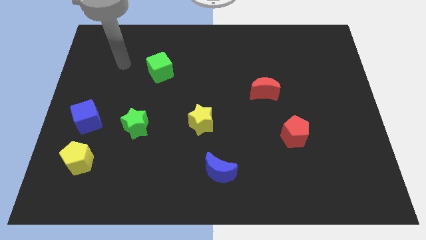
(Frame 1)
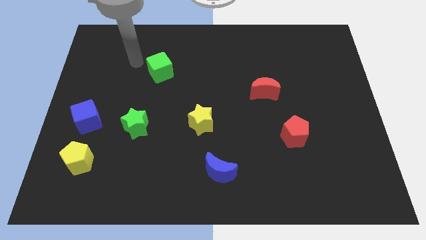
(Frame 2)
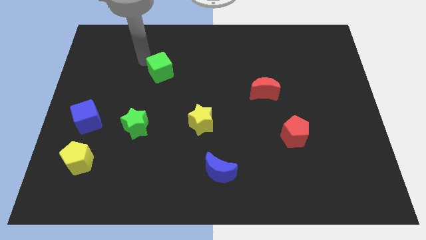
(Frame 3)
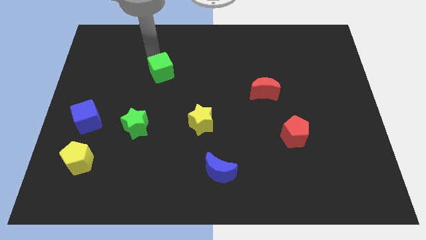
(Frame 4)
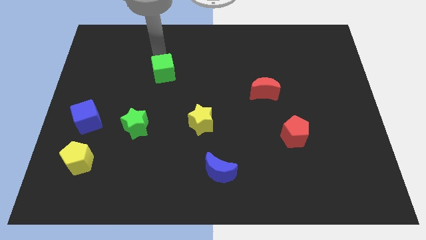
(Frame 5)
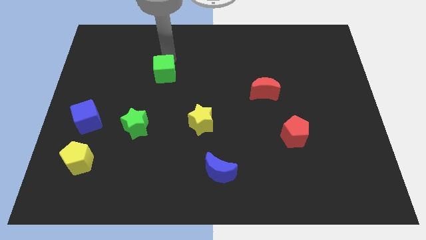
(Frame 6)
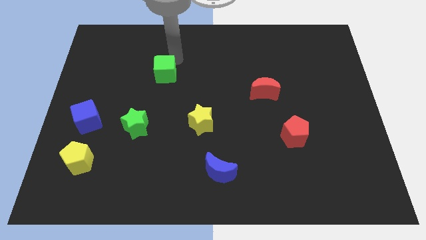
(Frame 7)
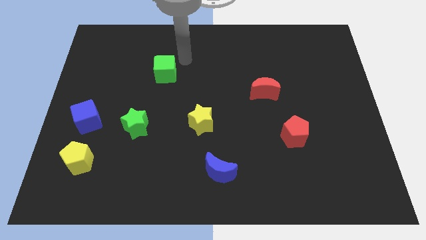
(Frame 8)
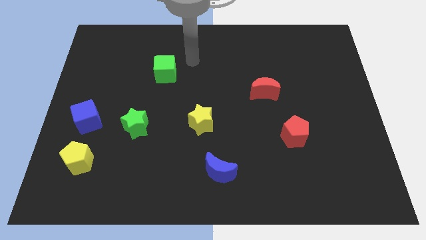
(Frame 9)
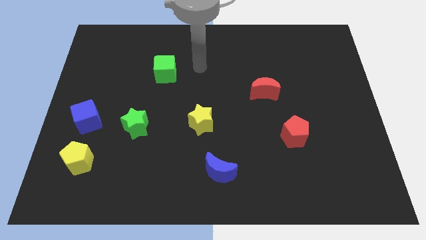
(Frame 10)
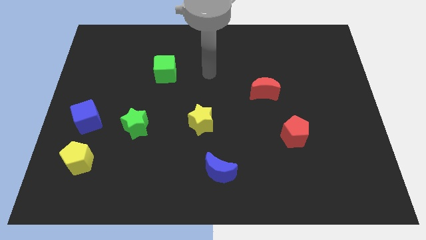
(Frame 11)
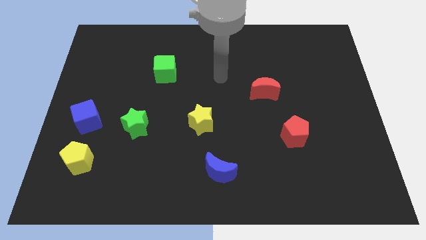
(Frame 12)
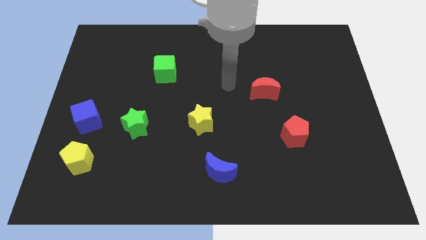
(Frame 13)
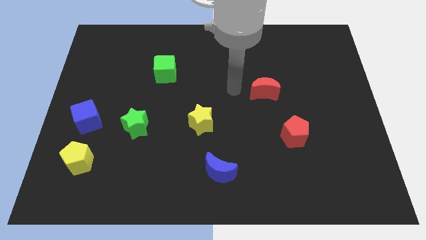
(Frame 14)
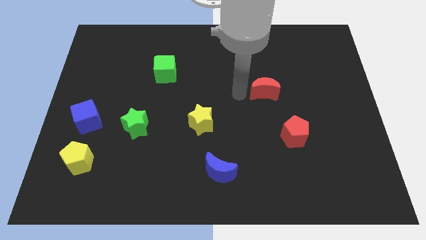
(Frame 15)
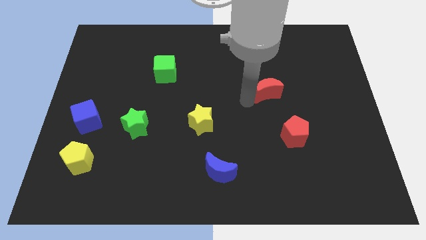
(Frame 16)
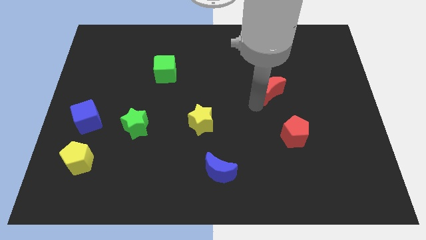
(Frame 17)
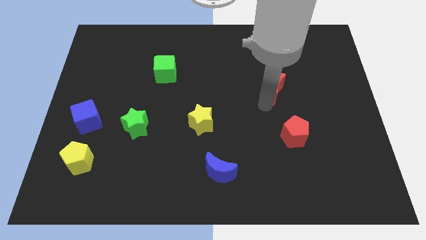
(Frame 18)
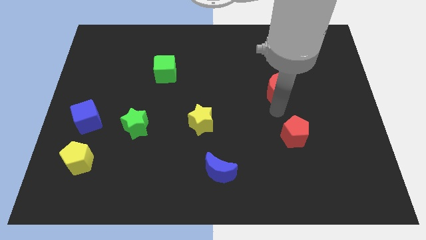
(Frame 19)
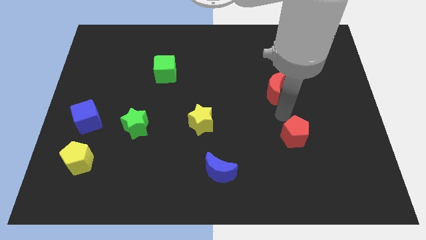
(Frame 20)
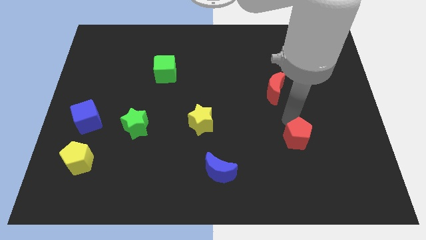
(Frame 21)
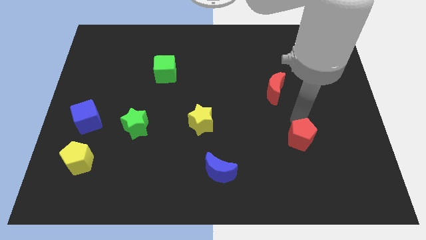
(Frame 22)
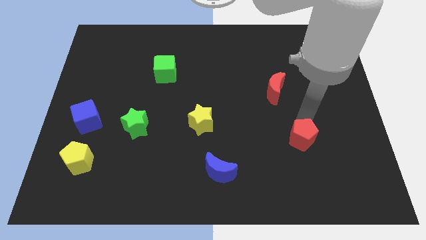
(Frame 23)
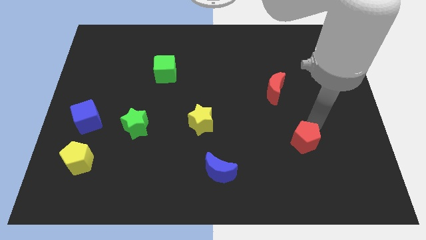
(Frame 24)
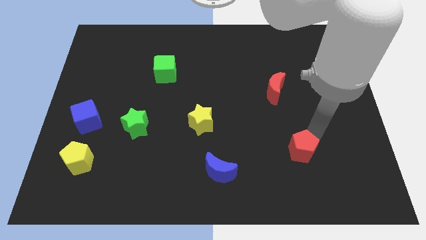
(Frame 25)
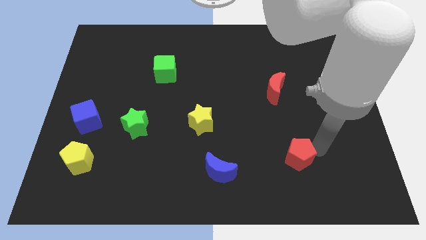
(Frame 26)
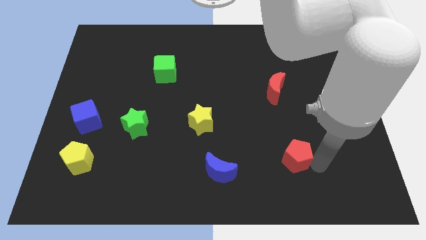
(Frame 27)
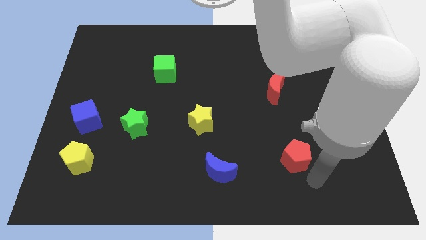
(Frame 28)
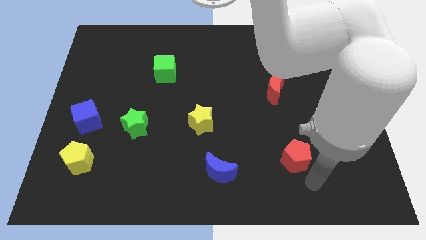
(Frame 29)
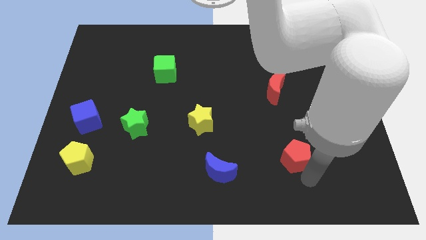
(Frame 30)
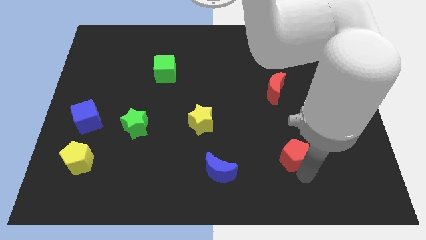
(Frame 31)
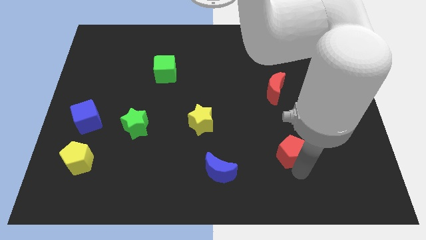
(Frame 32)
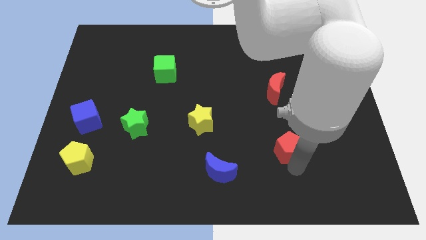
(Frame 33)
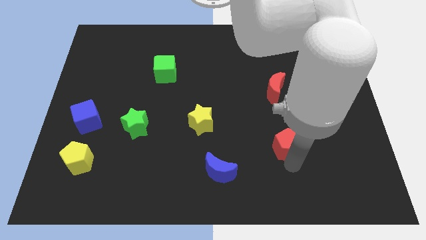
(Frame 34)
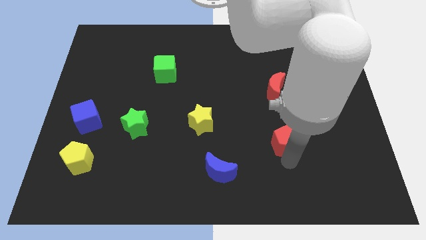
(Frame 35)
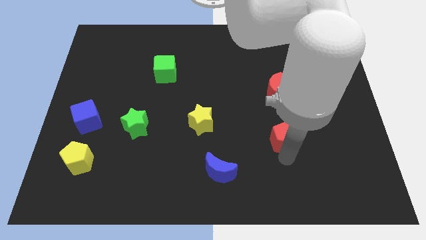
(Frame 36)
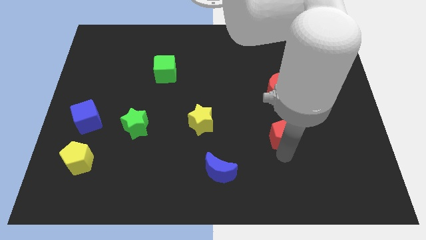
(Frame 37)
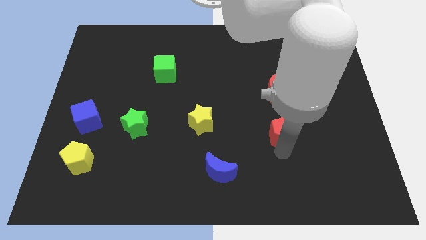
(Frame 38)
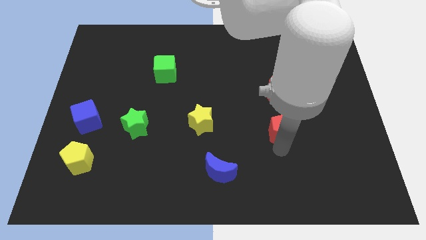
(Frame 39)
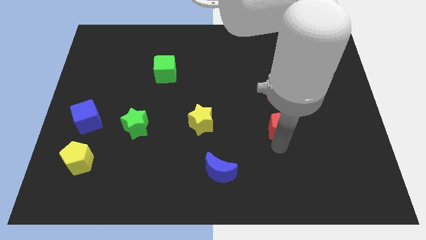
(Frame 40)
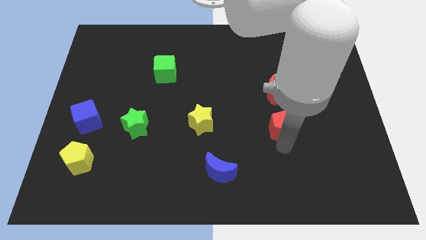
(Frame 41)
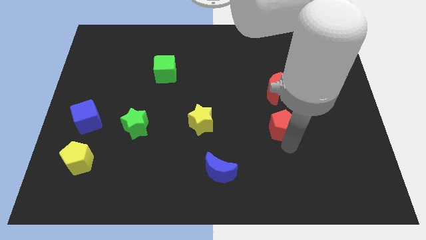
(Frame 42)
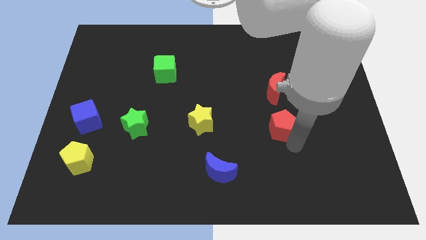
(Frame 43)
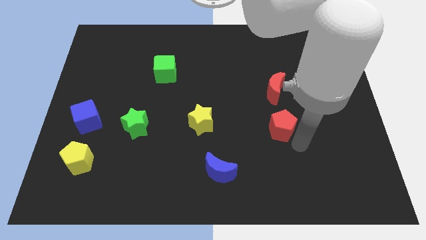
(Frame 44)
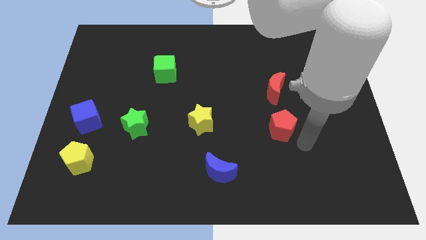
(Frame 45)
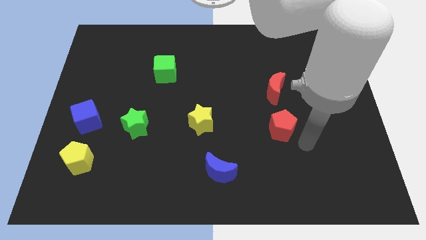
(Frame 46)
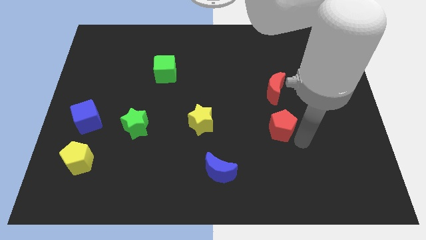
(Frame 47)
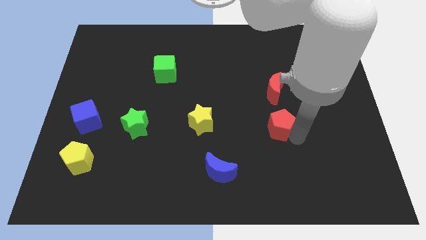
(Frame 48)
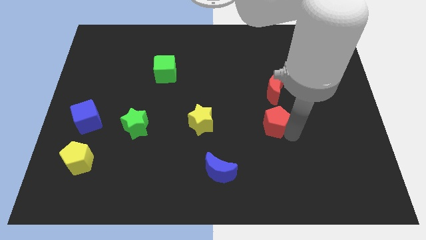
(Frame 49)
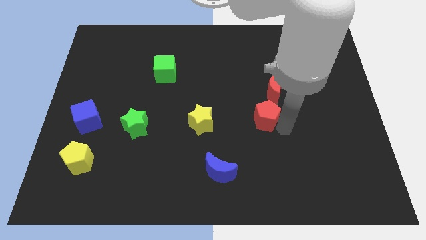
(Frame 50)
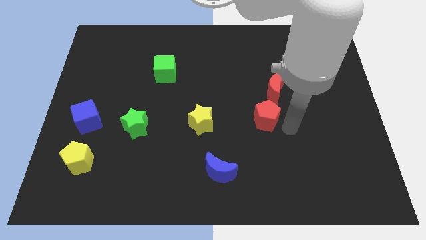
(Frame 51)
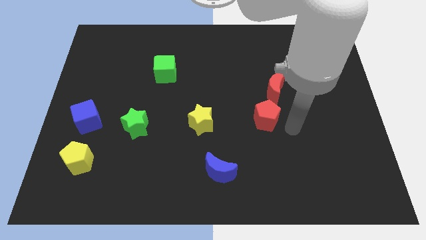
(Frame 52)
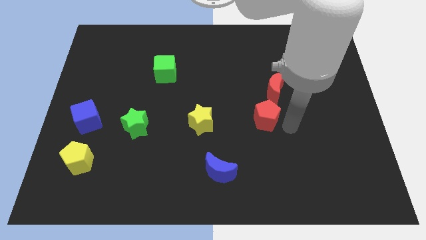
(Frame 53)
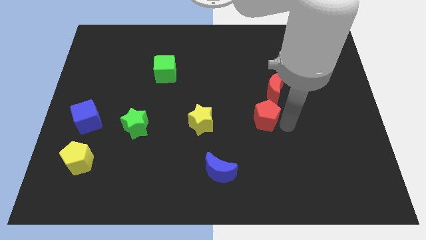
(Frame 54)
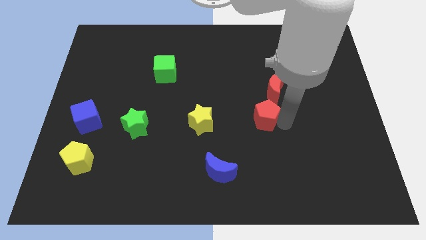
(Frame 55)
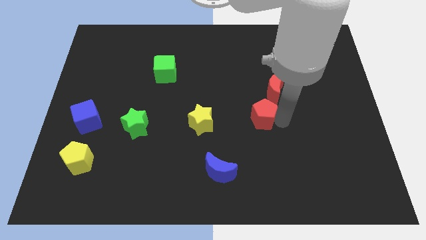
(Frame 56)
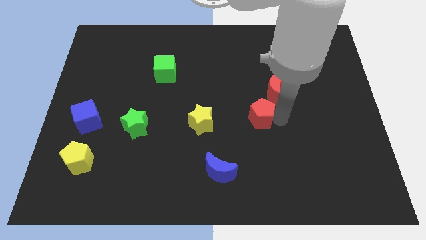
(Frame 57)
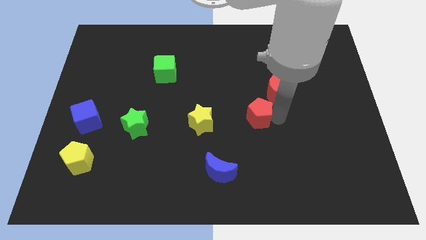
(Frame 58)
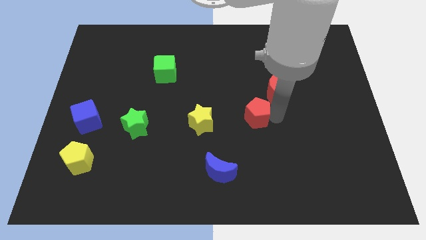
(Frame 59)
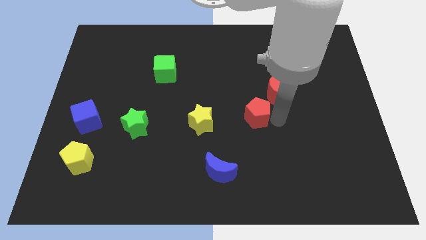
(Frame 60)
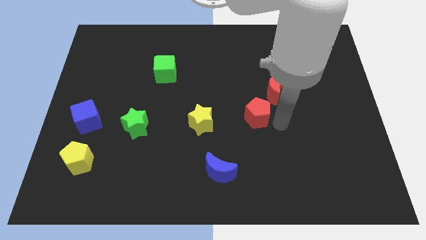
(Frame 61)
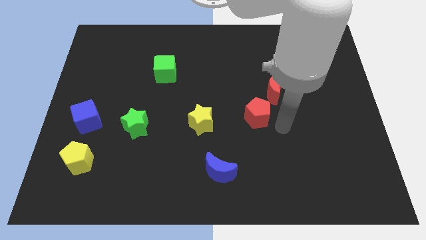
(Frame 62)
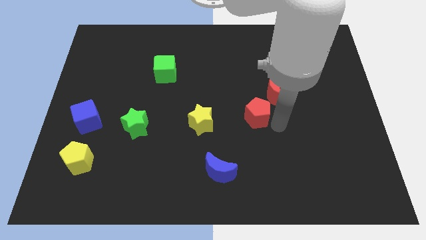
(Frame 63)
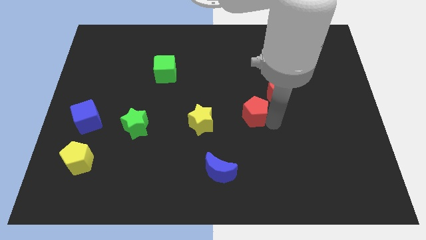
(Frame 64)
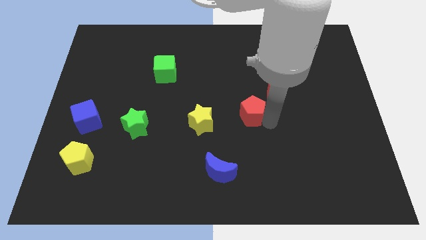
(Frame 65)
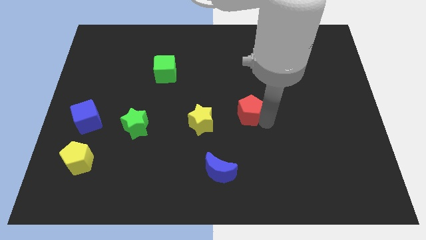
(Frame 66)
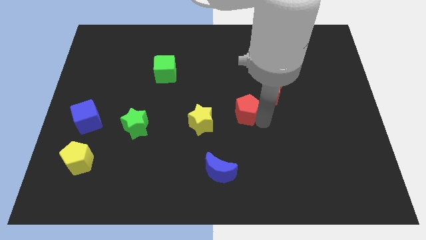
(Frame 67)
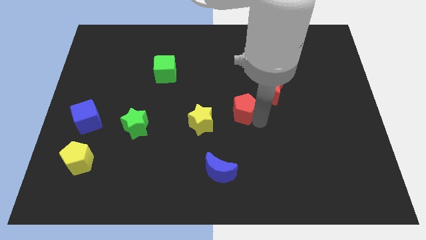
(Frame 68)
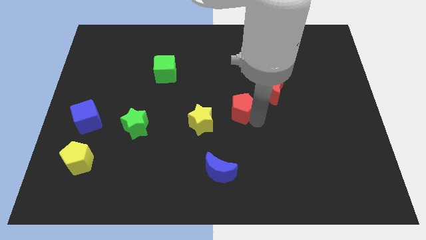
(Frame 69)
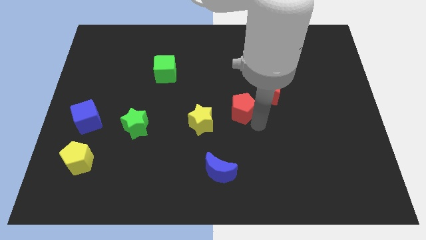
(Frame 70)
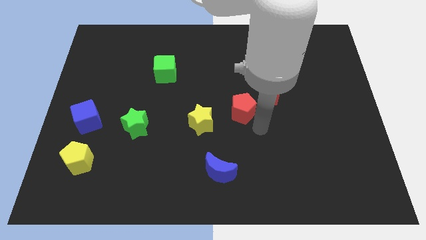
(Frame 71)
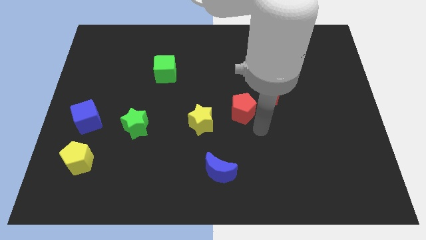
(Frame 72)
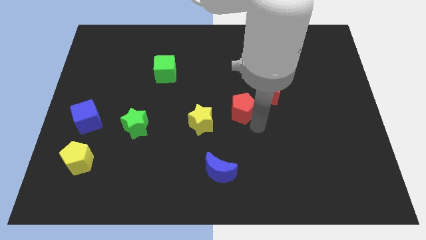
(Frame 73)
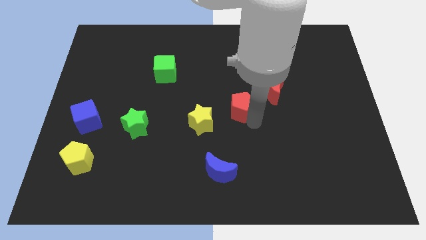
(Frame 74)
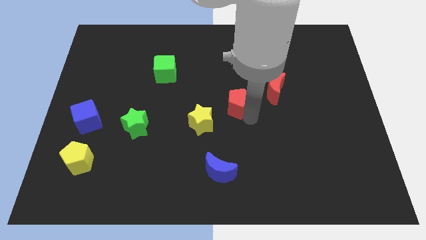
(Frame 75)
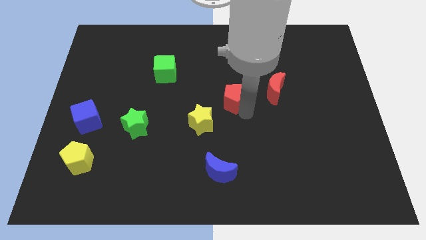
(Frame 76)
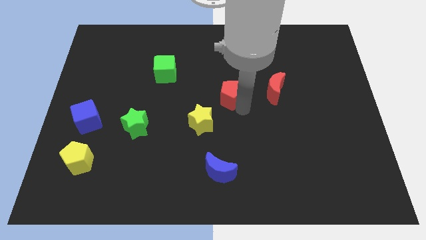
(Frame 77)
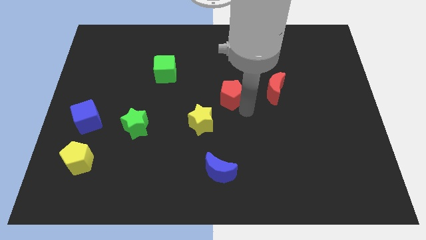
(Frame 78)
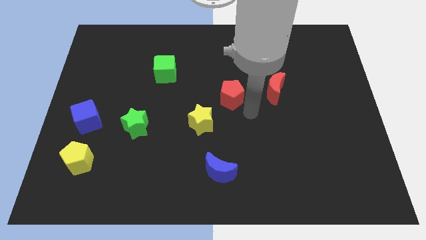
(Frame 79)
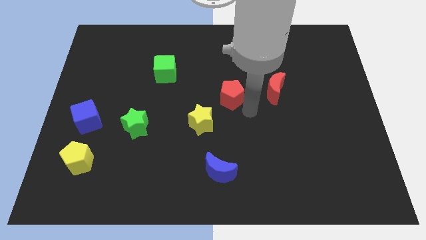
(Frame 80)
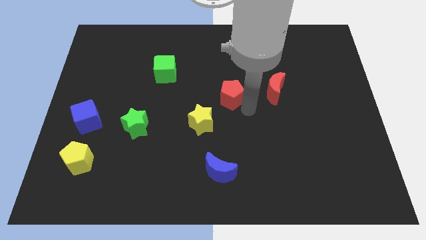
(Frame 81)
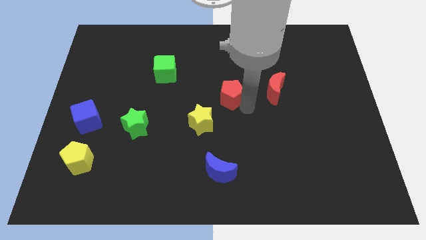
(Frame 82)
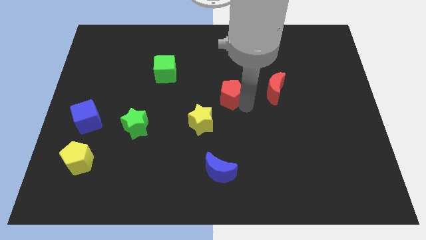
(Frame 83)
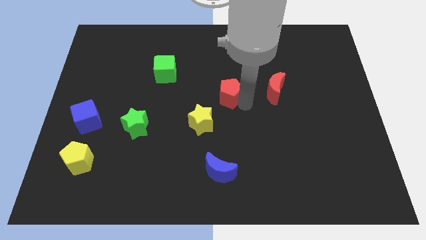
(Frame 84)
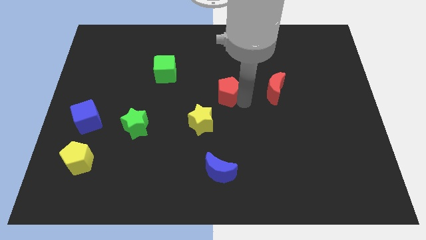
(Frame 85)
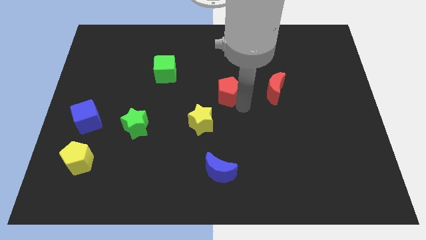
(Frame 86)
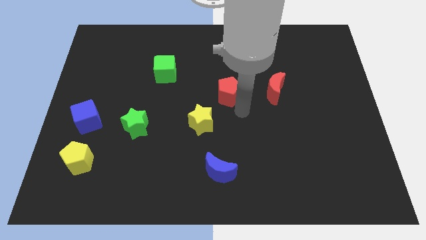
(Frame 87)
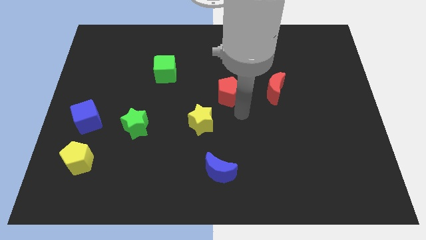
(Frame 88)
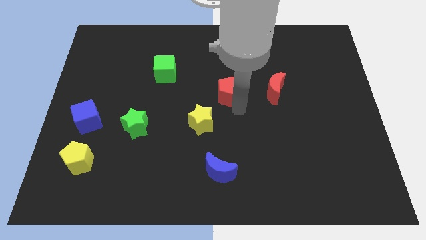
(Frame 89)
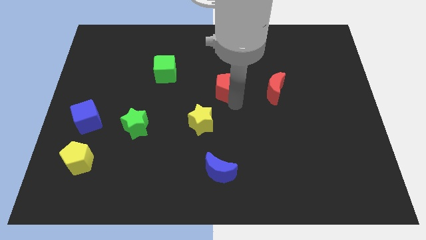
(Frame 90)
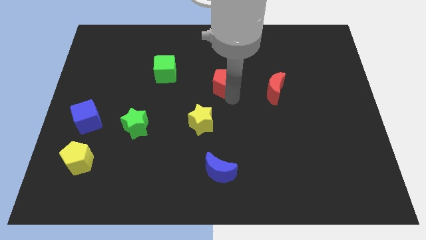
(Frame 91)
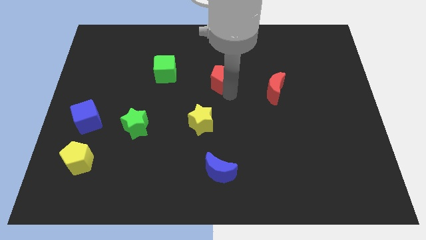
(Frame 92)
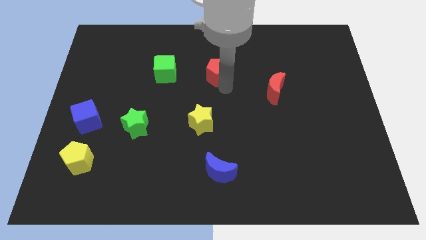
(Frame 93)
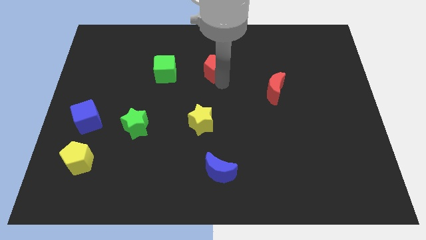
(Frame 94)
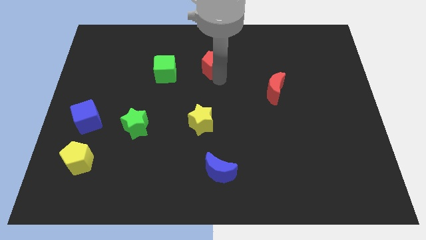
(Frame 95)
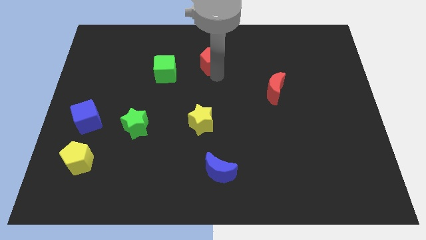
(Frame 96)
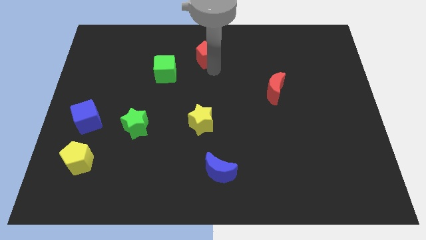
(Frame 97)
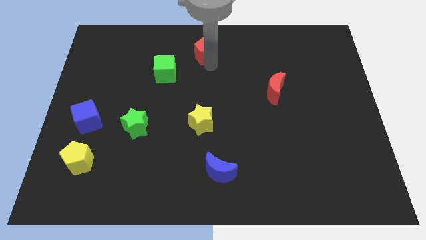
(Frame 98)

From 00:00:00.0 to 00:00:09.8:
move the red pentagon to the top
